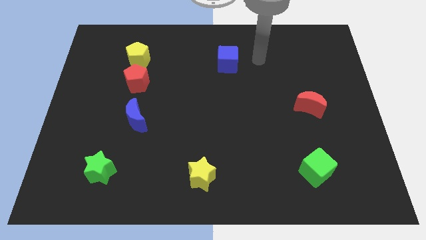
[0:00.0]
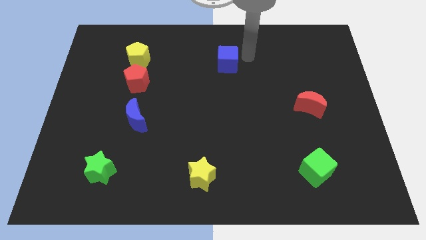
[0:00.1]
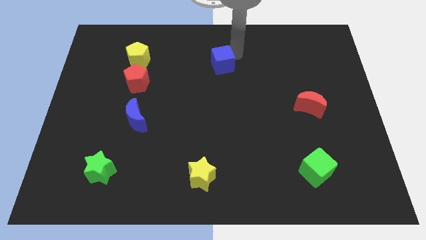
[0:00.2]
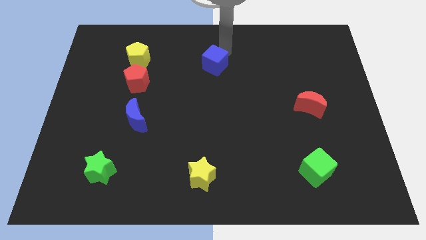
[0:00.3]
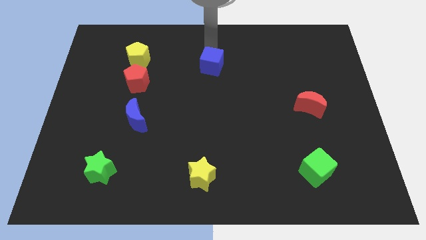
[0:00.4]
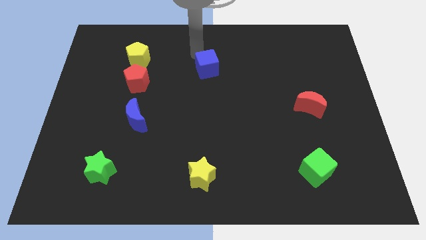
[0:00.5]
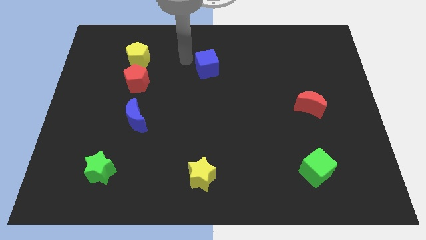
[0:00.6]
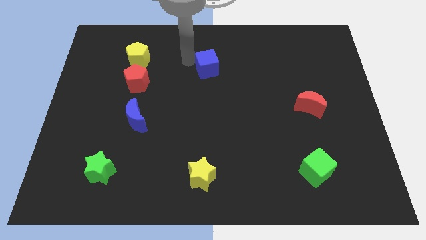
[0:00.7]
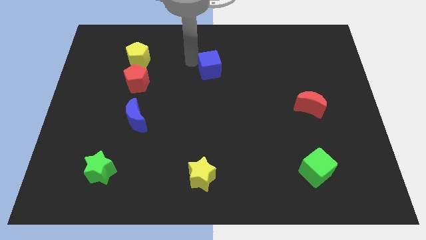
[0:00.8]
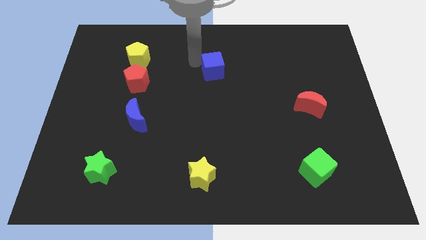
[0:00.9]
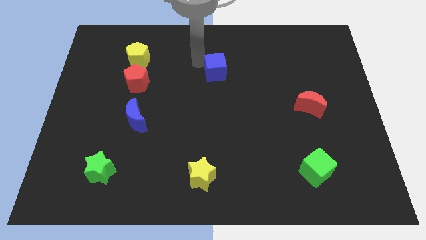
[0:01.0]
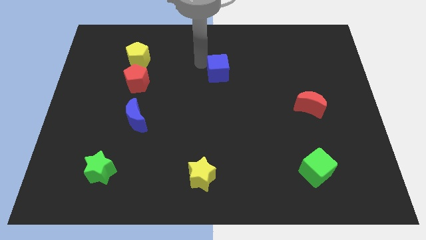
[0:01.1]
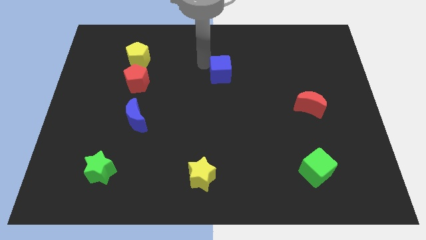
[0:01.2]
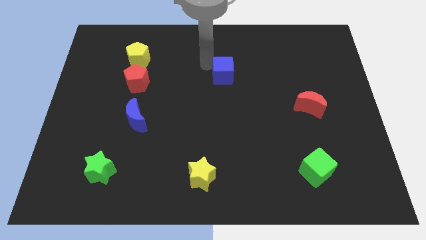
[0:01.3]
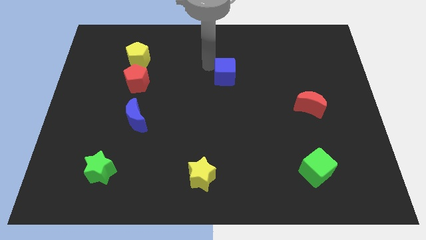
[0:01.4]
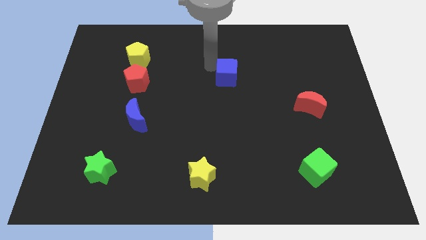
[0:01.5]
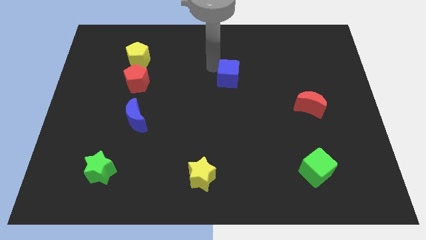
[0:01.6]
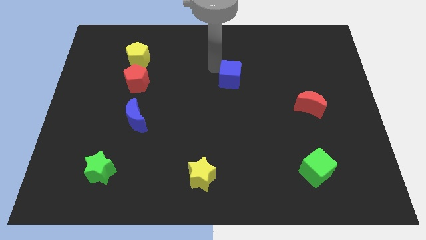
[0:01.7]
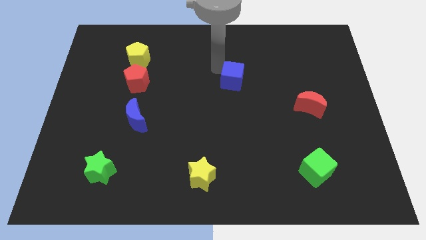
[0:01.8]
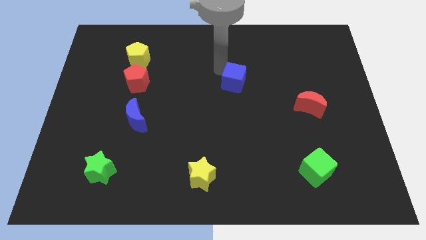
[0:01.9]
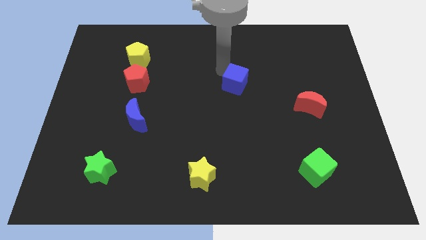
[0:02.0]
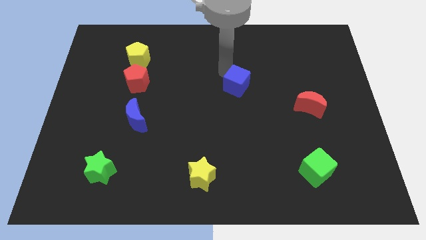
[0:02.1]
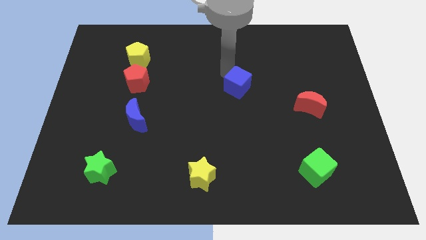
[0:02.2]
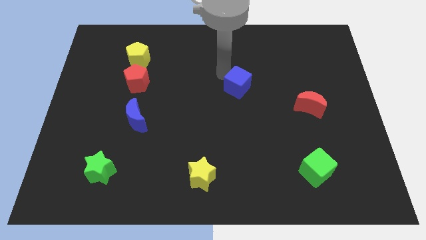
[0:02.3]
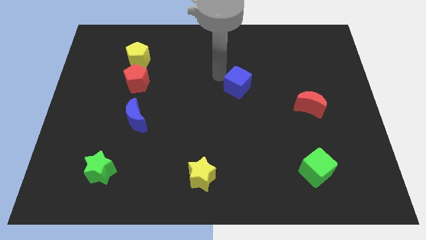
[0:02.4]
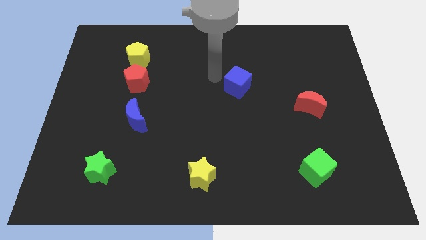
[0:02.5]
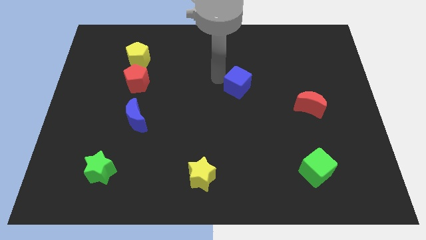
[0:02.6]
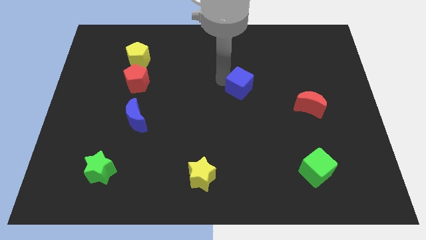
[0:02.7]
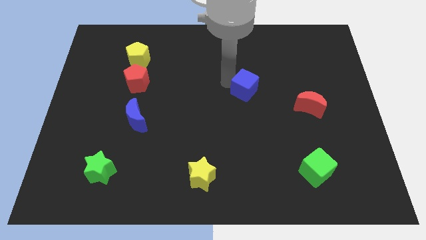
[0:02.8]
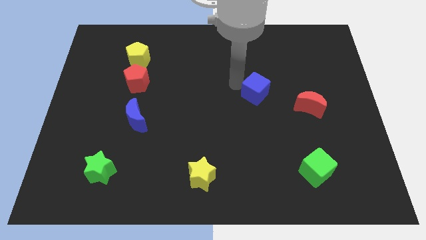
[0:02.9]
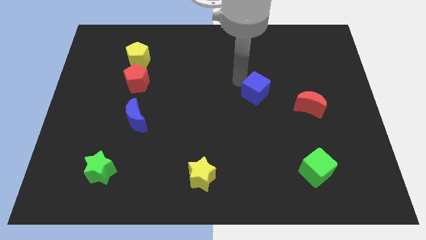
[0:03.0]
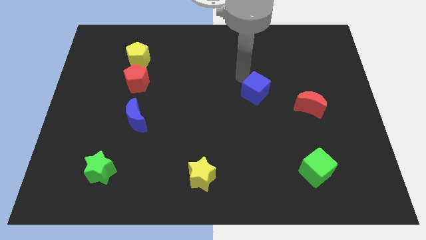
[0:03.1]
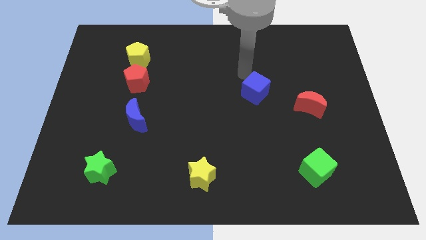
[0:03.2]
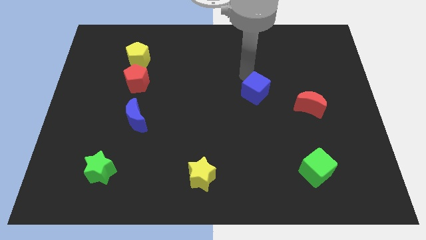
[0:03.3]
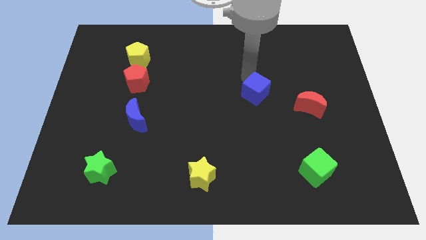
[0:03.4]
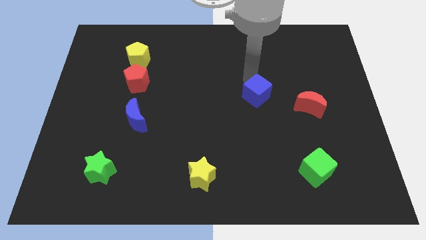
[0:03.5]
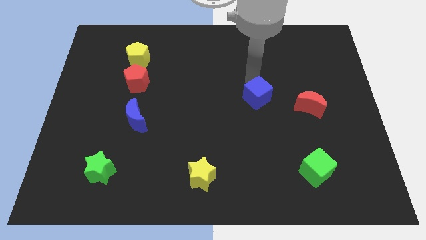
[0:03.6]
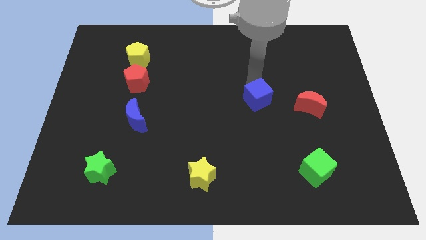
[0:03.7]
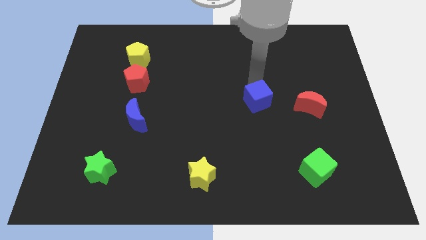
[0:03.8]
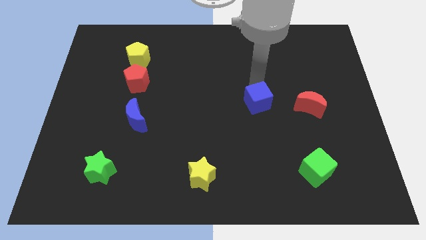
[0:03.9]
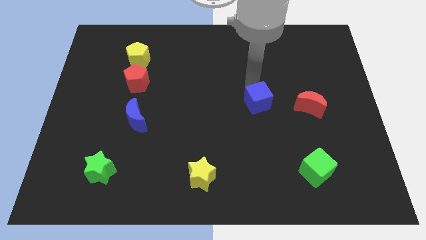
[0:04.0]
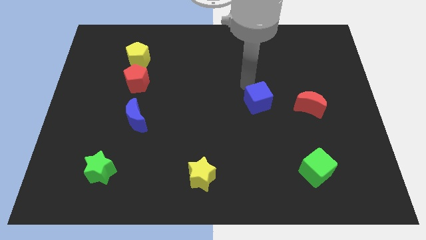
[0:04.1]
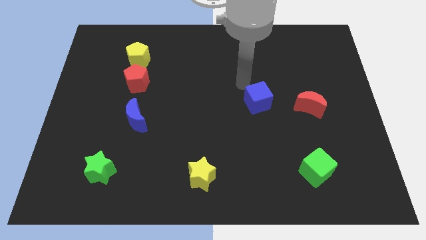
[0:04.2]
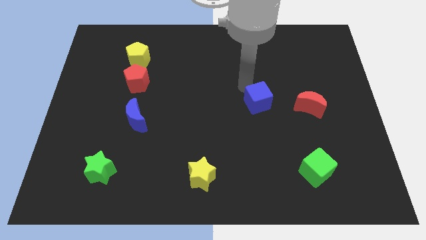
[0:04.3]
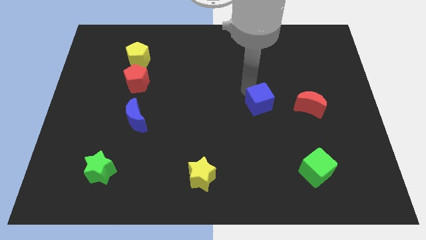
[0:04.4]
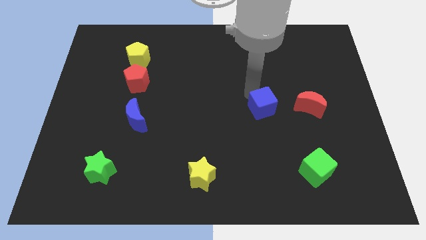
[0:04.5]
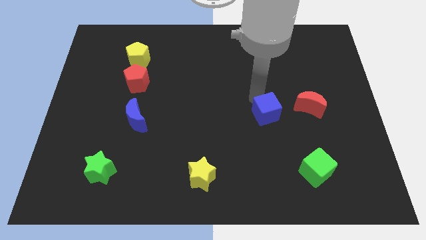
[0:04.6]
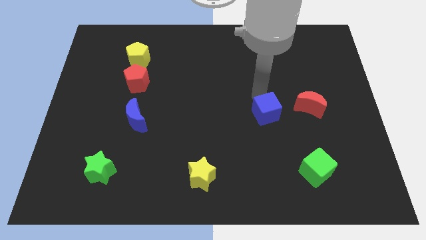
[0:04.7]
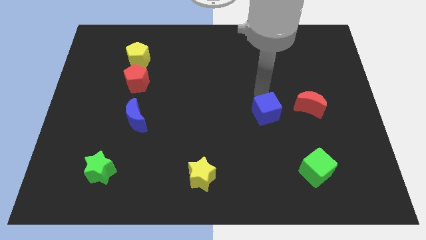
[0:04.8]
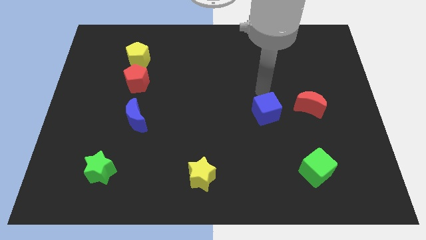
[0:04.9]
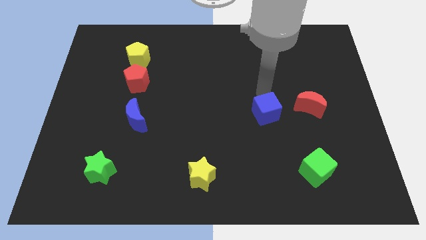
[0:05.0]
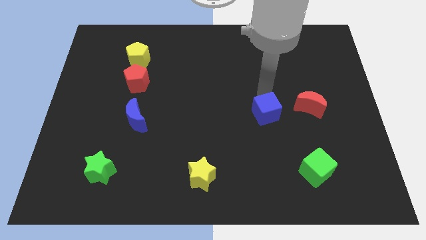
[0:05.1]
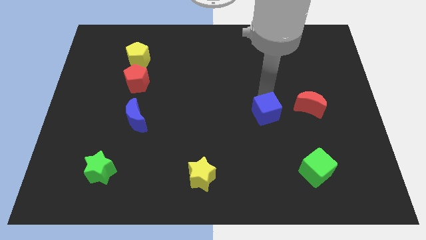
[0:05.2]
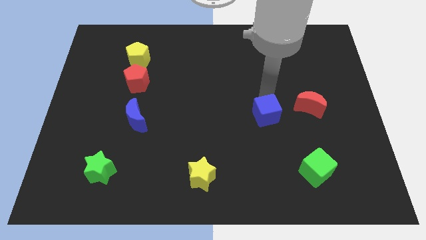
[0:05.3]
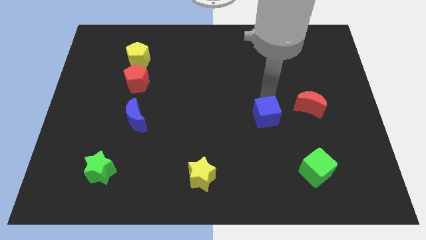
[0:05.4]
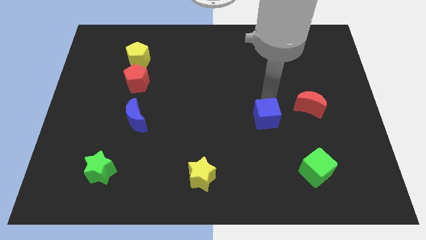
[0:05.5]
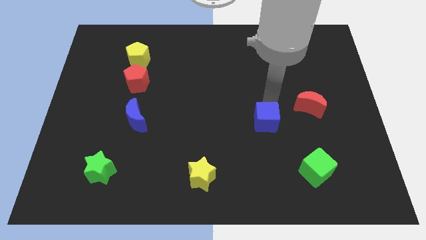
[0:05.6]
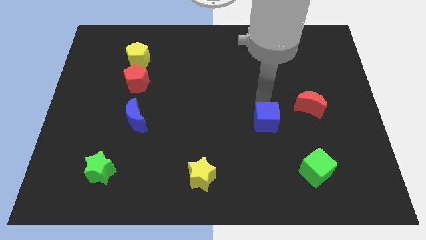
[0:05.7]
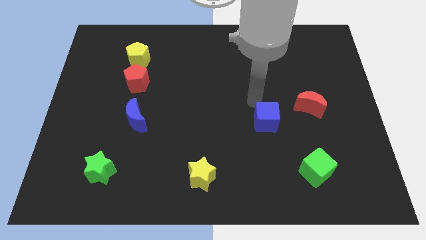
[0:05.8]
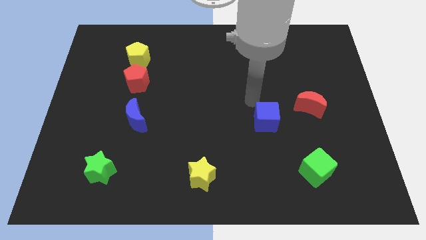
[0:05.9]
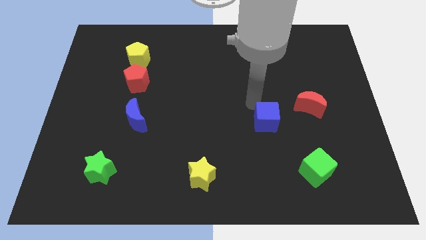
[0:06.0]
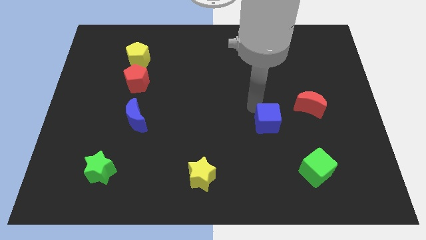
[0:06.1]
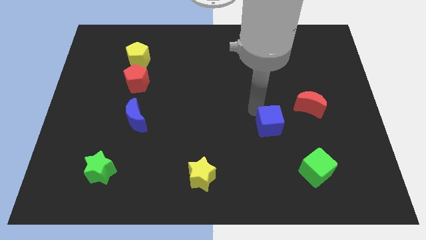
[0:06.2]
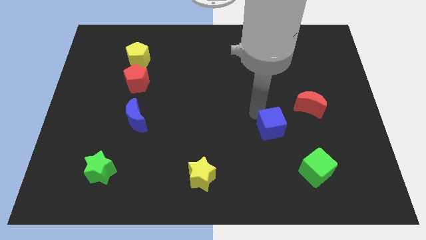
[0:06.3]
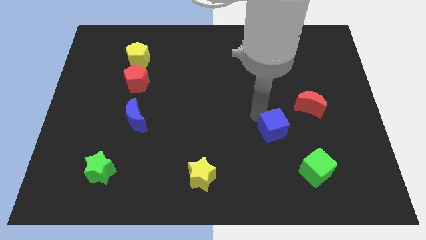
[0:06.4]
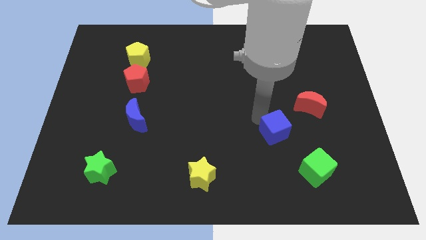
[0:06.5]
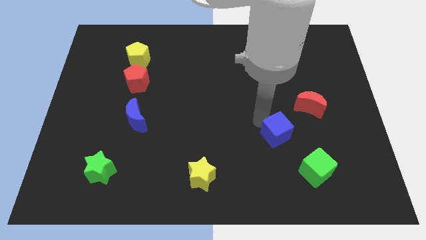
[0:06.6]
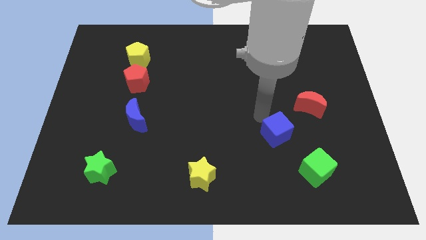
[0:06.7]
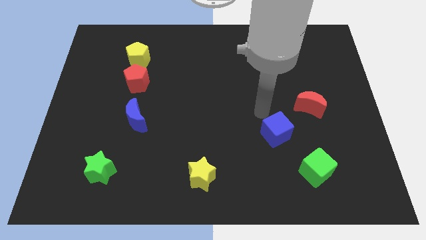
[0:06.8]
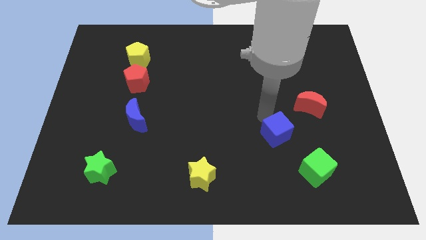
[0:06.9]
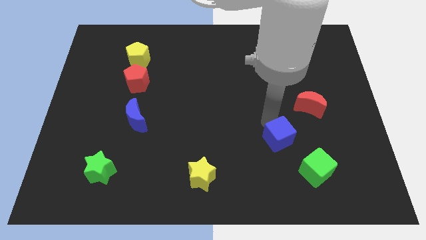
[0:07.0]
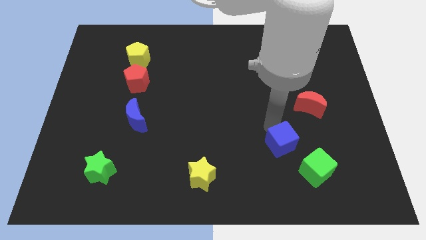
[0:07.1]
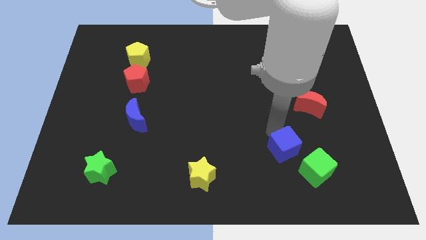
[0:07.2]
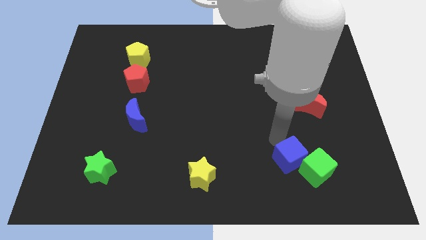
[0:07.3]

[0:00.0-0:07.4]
push the blue cube next to the green cube
